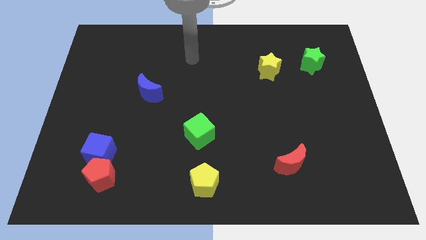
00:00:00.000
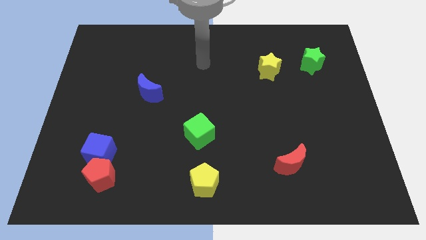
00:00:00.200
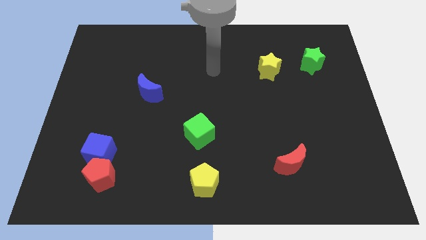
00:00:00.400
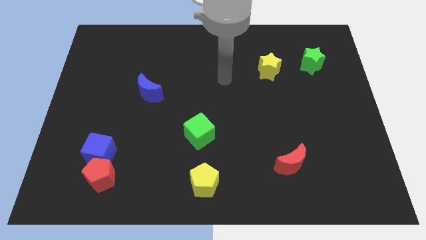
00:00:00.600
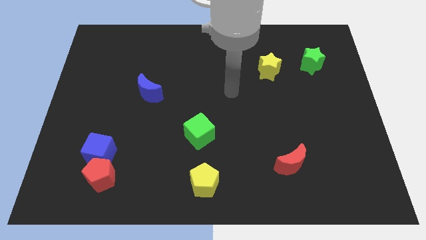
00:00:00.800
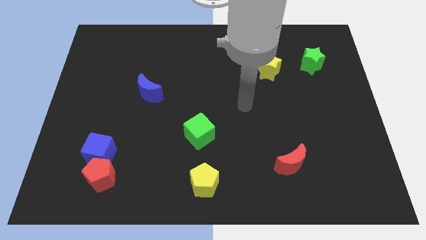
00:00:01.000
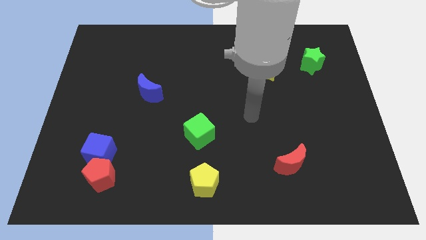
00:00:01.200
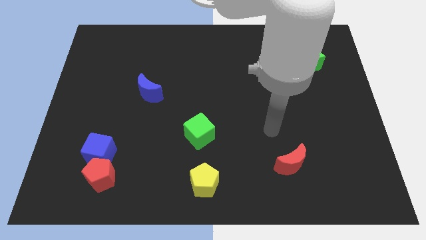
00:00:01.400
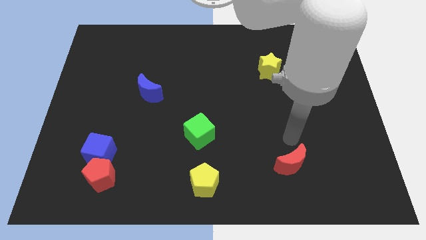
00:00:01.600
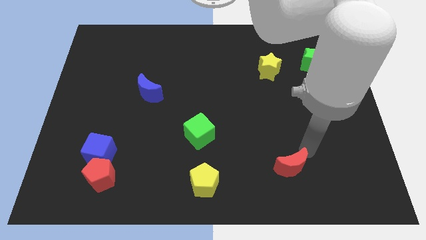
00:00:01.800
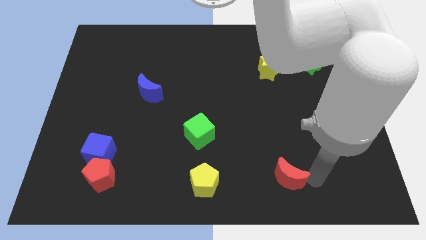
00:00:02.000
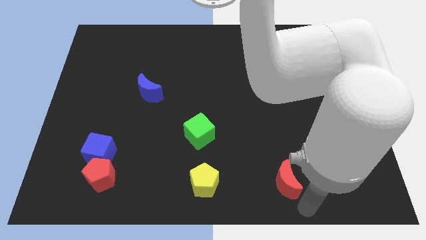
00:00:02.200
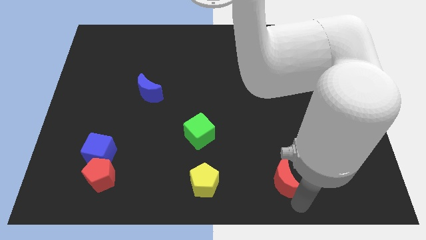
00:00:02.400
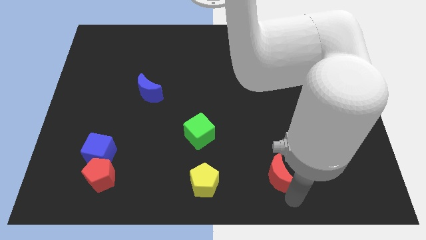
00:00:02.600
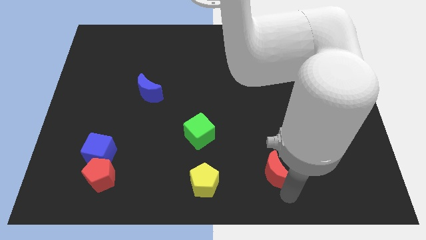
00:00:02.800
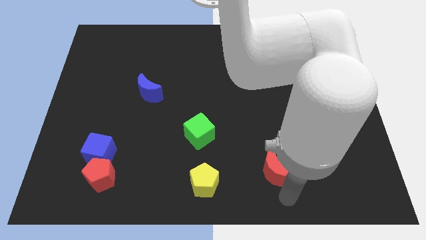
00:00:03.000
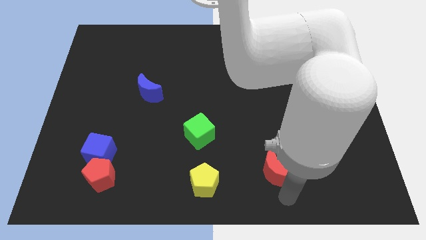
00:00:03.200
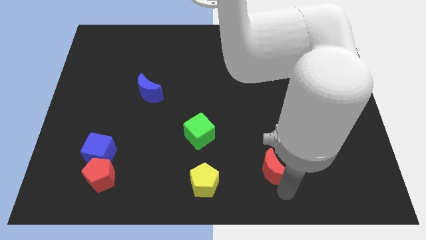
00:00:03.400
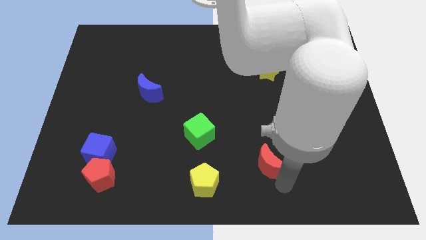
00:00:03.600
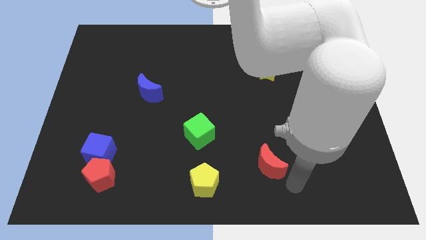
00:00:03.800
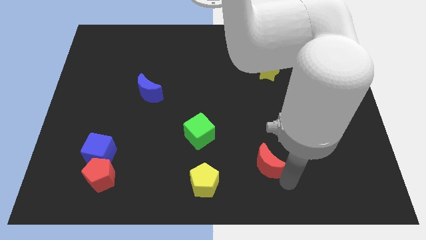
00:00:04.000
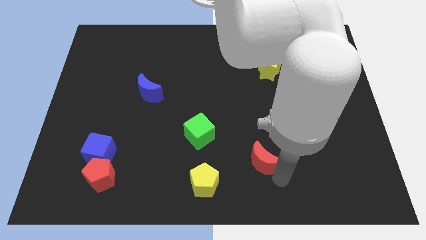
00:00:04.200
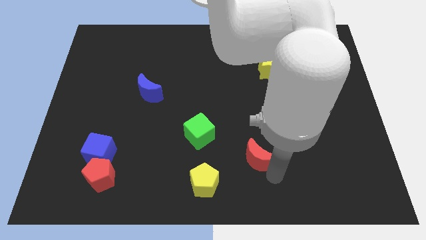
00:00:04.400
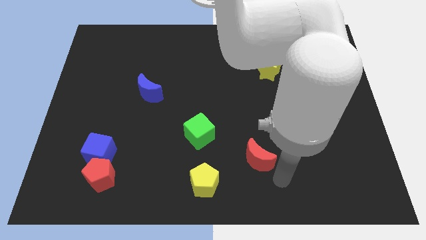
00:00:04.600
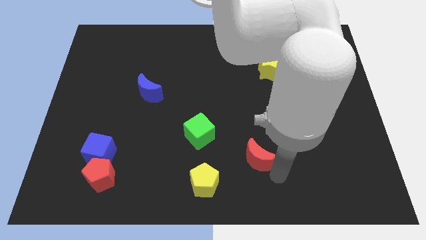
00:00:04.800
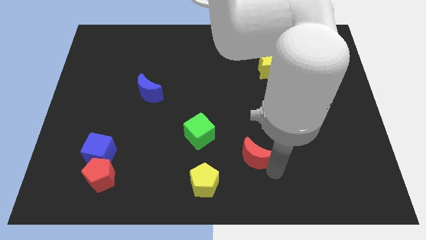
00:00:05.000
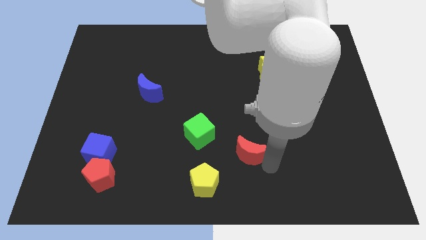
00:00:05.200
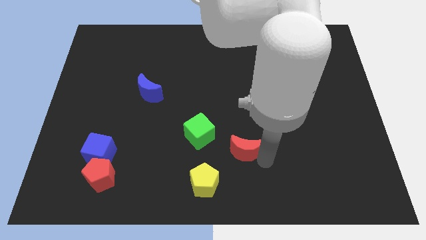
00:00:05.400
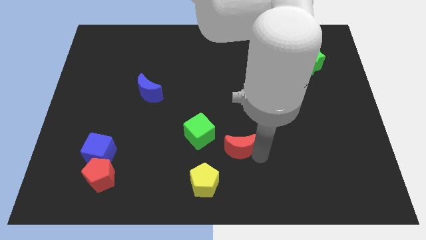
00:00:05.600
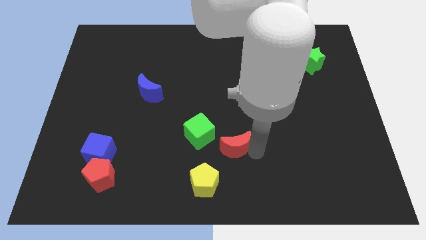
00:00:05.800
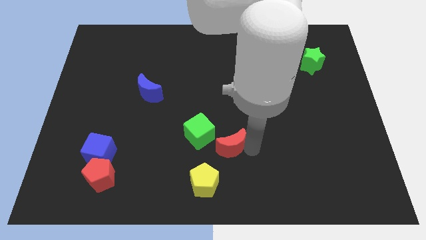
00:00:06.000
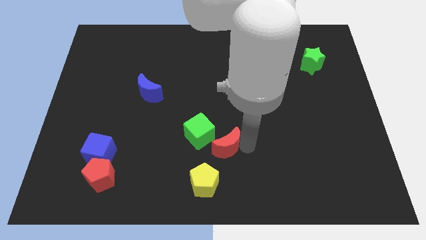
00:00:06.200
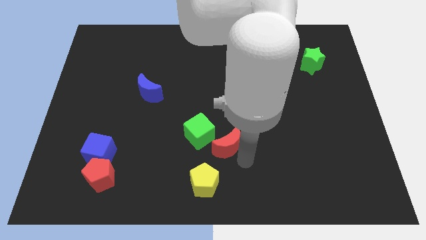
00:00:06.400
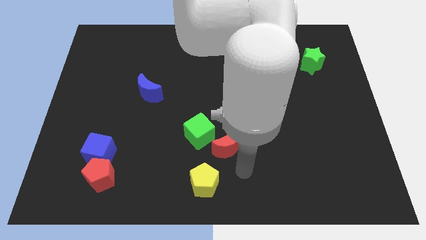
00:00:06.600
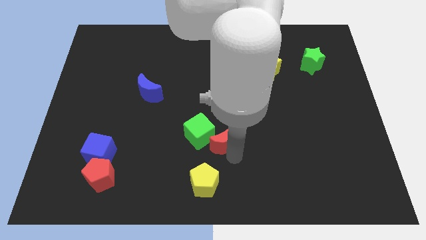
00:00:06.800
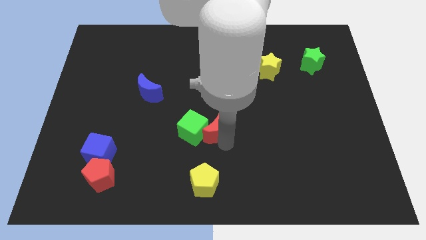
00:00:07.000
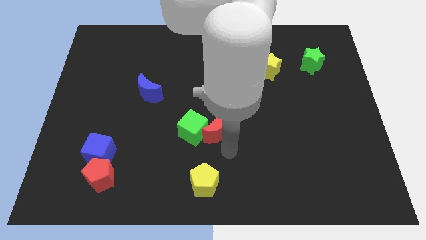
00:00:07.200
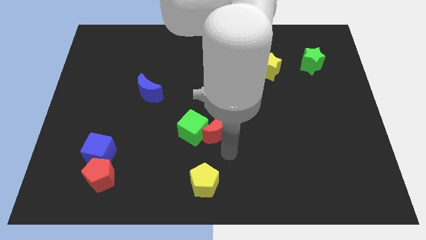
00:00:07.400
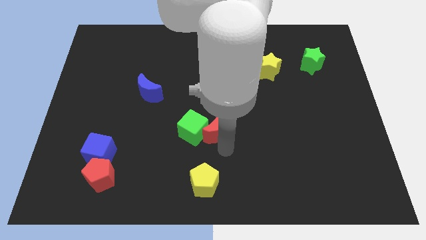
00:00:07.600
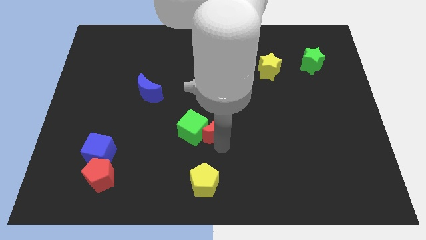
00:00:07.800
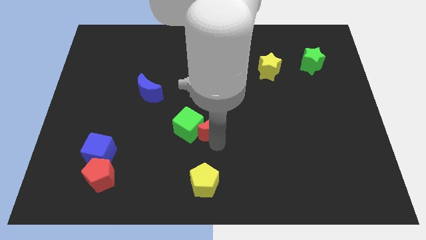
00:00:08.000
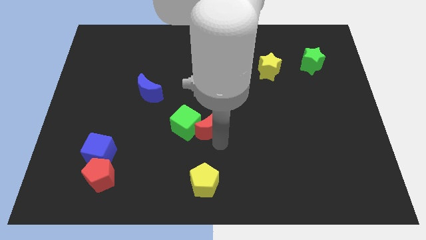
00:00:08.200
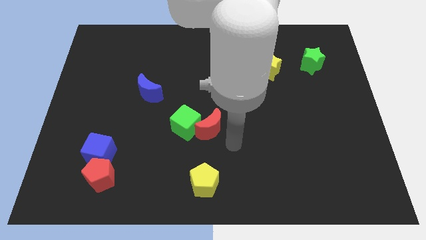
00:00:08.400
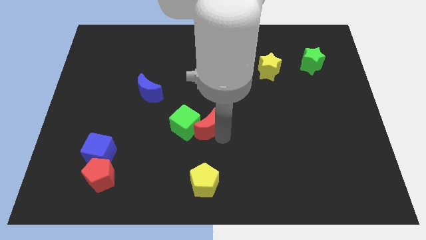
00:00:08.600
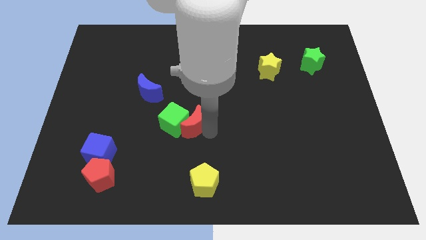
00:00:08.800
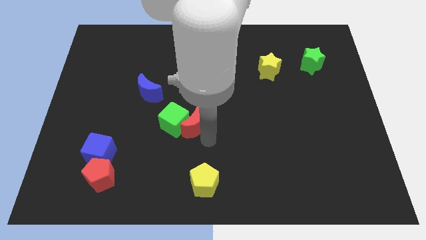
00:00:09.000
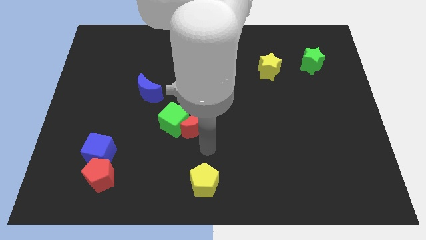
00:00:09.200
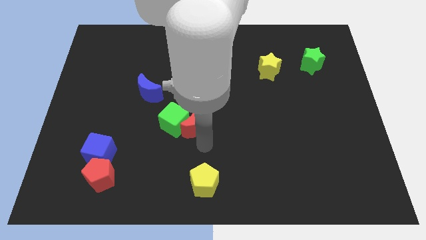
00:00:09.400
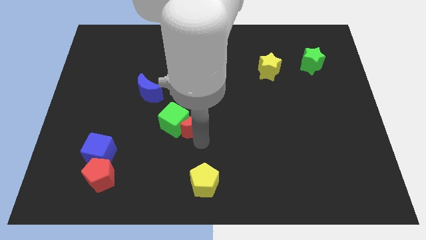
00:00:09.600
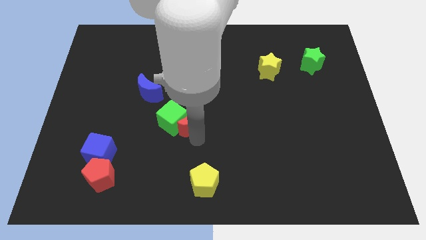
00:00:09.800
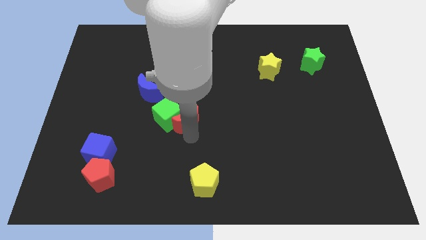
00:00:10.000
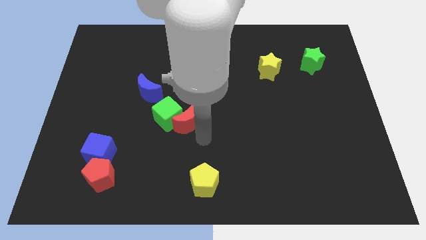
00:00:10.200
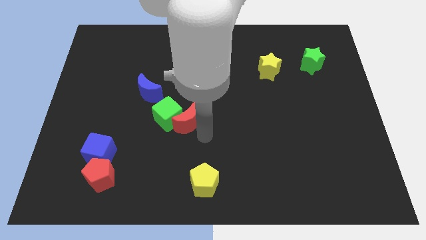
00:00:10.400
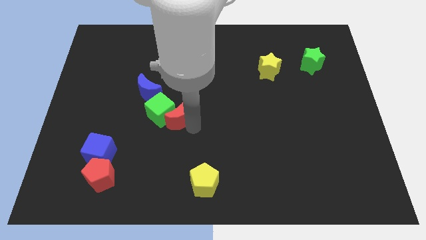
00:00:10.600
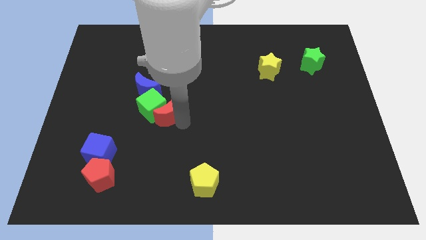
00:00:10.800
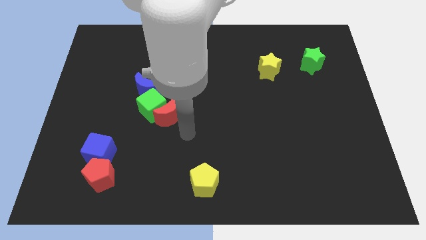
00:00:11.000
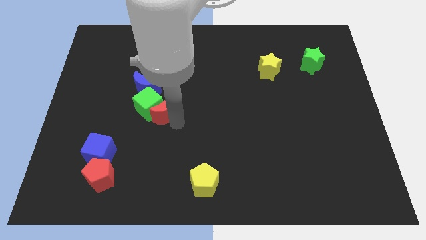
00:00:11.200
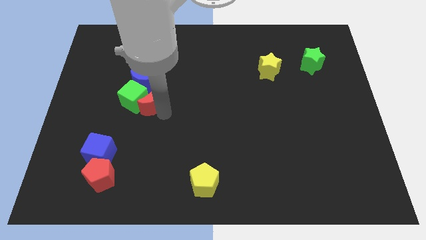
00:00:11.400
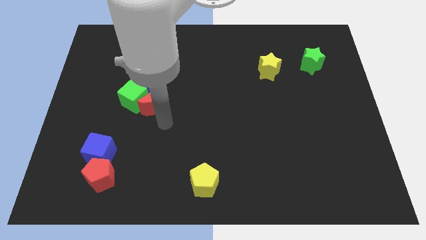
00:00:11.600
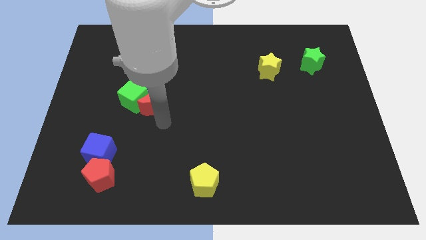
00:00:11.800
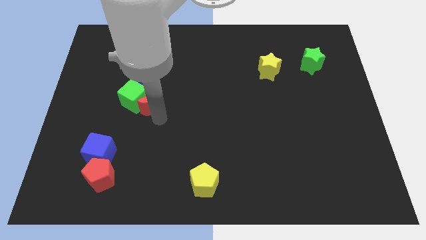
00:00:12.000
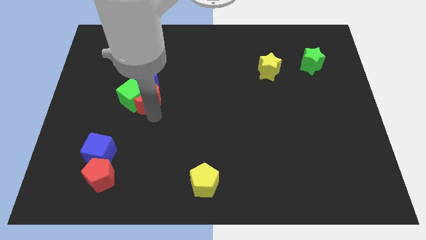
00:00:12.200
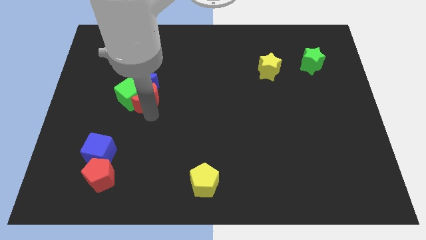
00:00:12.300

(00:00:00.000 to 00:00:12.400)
push the red moon to the blue moon

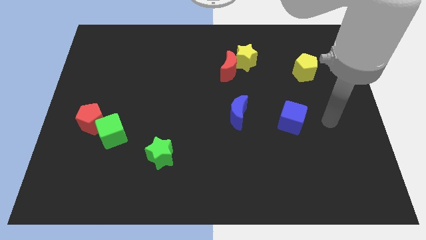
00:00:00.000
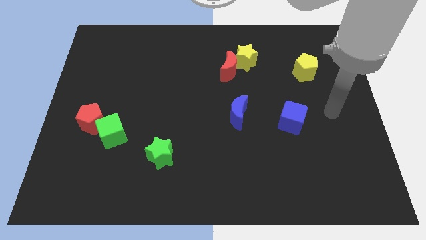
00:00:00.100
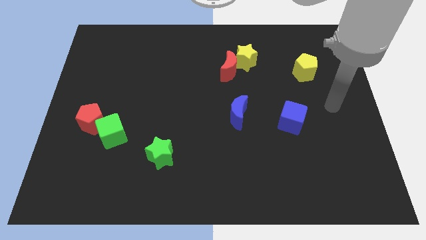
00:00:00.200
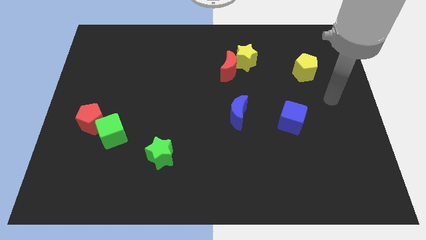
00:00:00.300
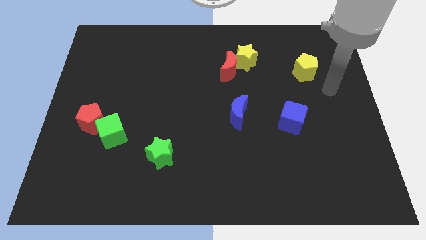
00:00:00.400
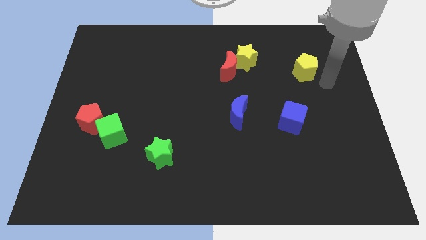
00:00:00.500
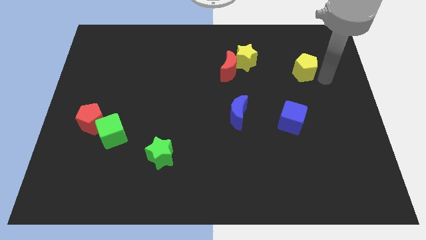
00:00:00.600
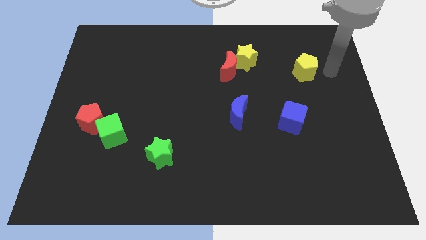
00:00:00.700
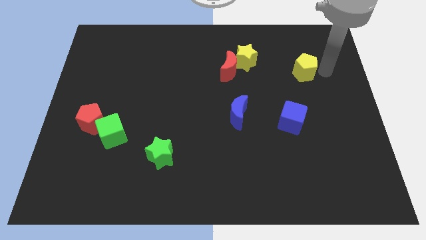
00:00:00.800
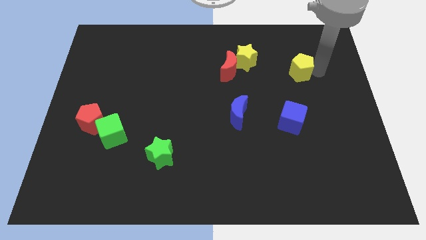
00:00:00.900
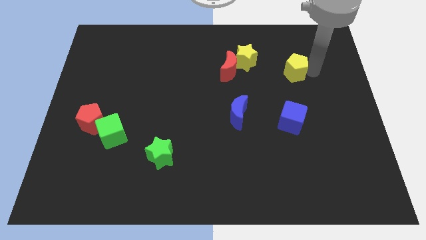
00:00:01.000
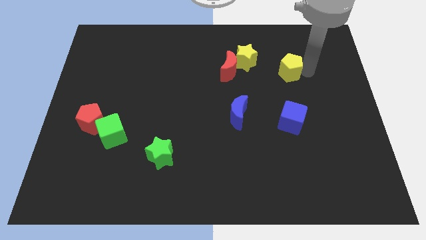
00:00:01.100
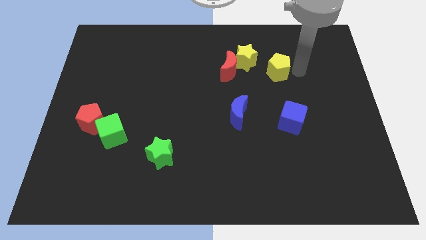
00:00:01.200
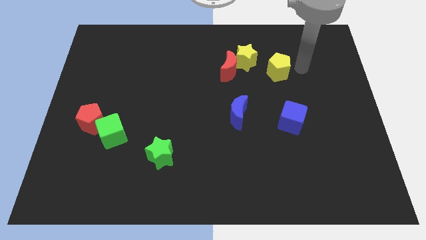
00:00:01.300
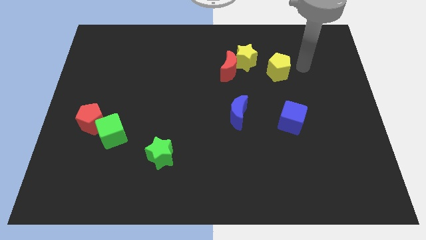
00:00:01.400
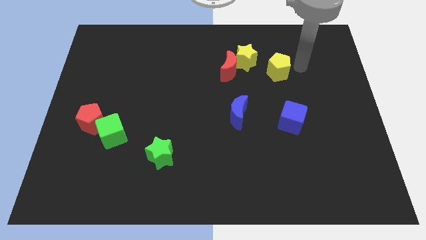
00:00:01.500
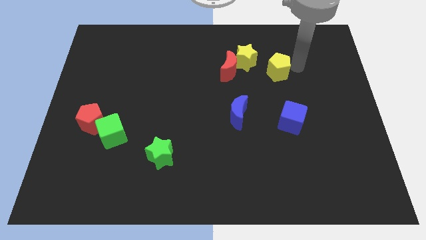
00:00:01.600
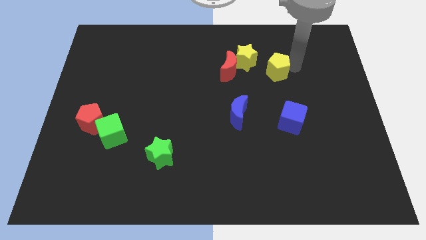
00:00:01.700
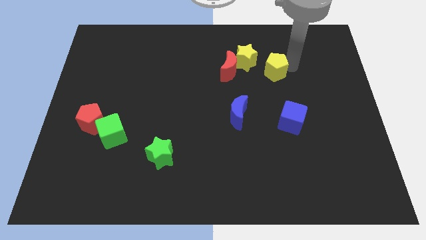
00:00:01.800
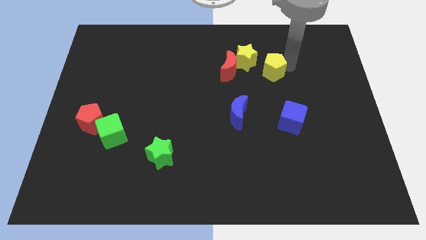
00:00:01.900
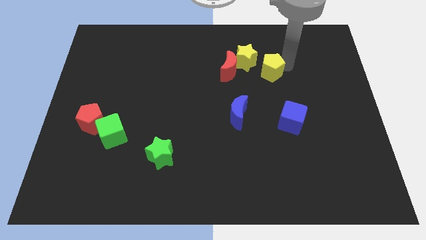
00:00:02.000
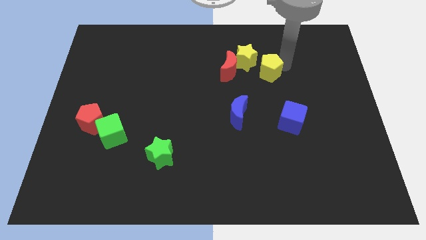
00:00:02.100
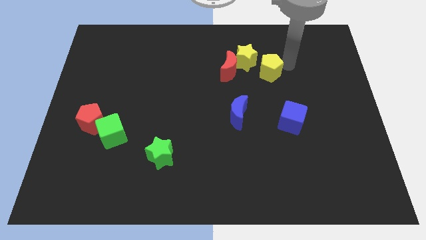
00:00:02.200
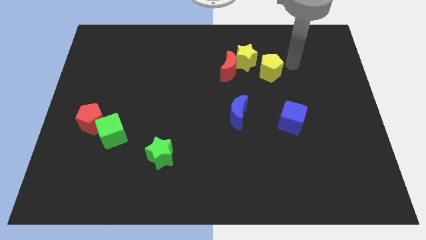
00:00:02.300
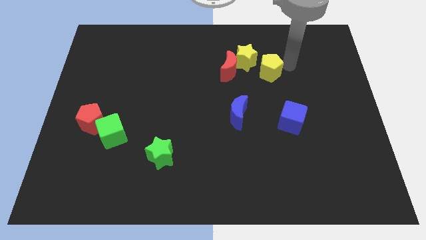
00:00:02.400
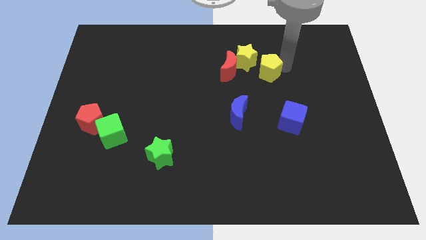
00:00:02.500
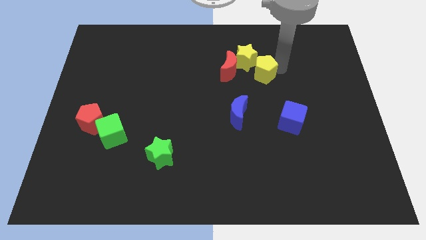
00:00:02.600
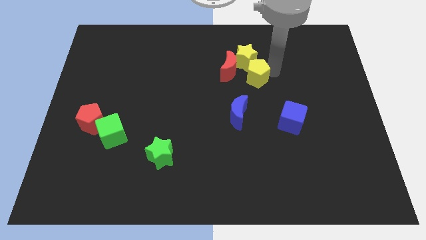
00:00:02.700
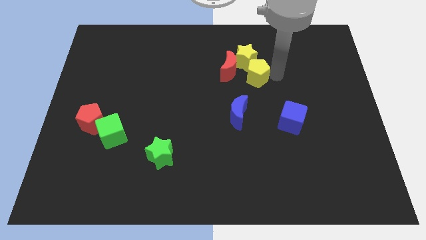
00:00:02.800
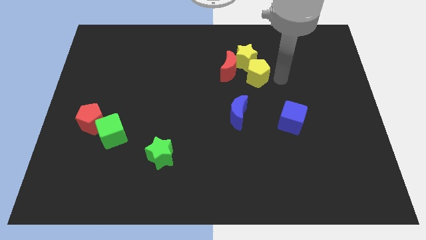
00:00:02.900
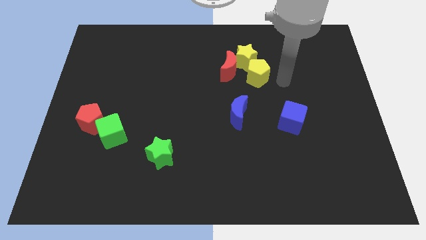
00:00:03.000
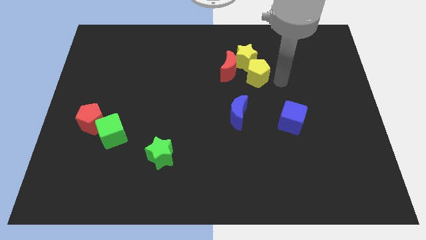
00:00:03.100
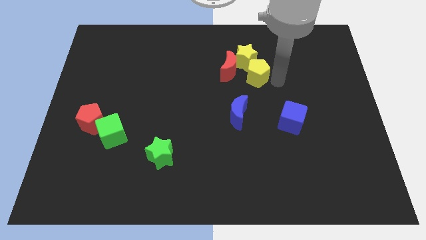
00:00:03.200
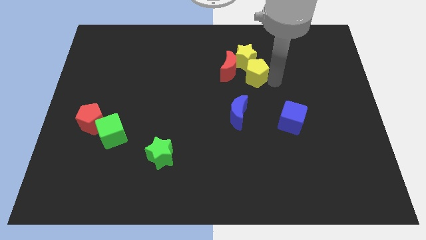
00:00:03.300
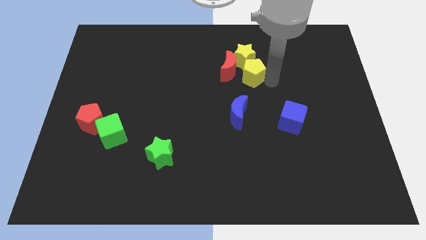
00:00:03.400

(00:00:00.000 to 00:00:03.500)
put the yellow pentagon to the red moon
